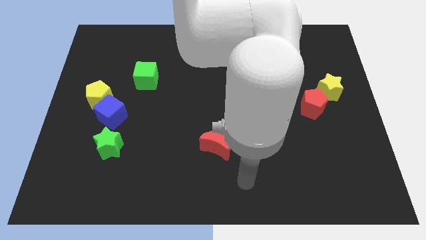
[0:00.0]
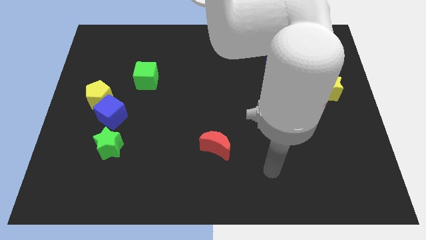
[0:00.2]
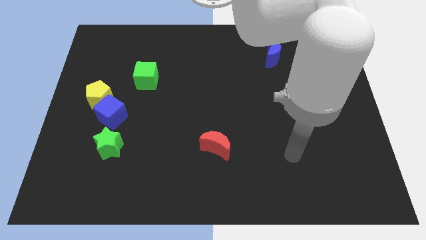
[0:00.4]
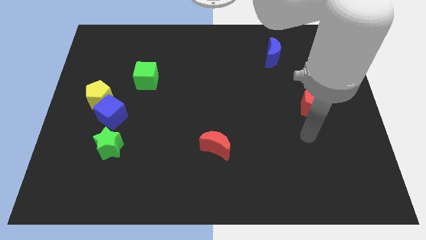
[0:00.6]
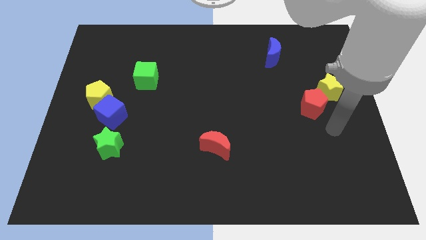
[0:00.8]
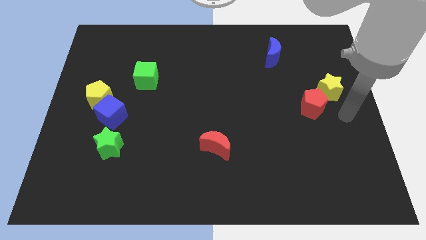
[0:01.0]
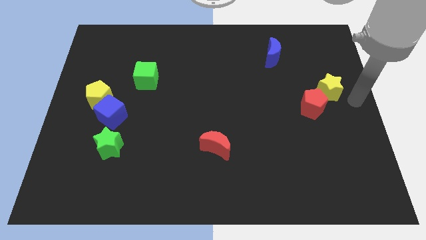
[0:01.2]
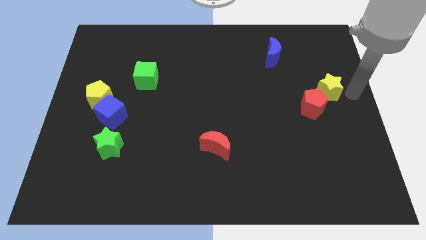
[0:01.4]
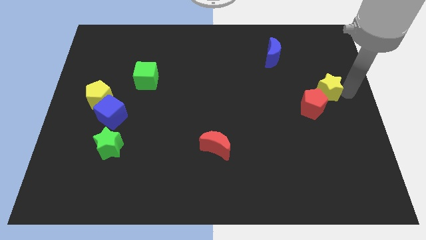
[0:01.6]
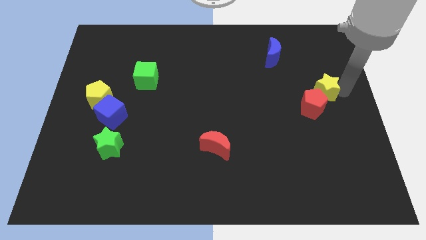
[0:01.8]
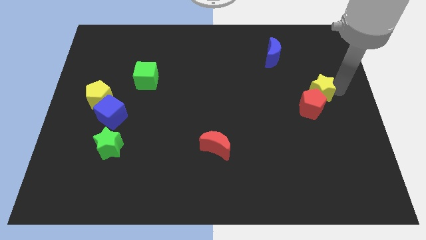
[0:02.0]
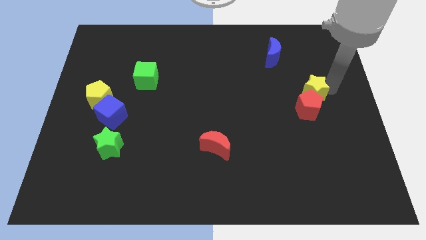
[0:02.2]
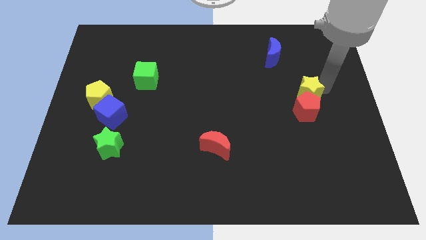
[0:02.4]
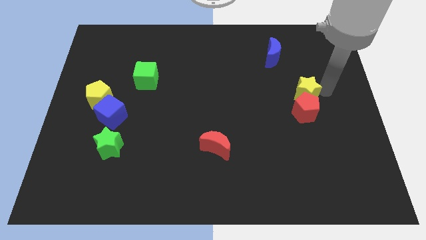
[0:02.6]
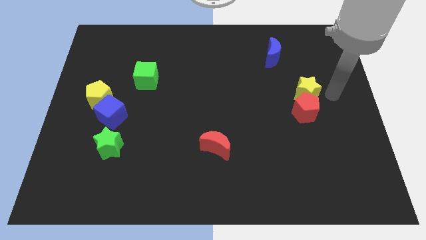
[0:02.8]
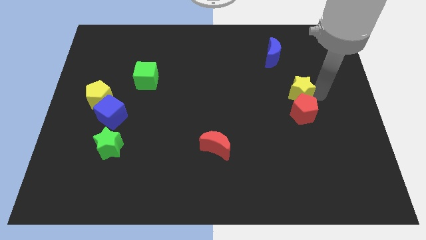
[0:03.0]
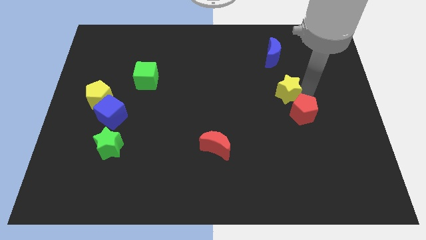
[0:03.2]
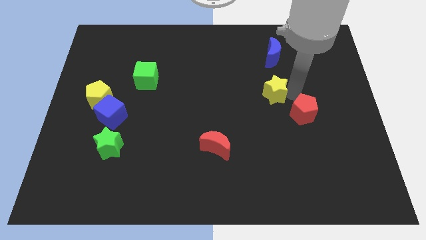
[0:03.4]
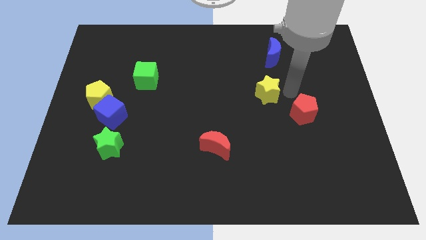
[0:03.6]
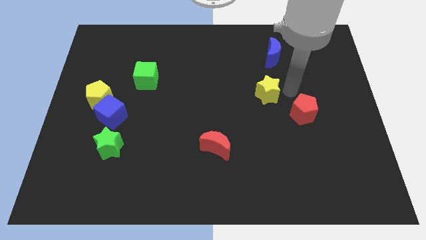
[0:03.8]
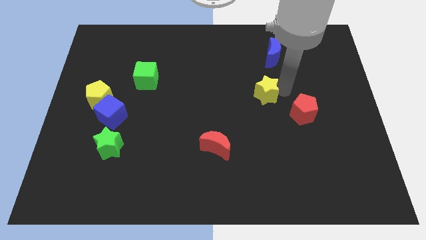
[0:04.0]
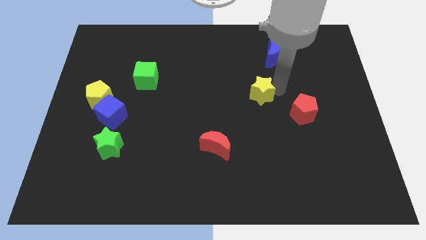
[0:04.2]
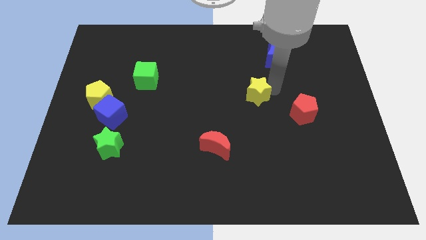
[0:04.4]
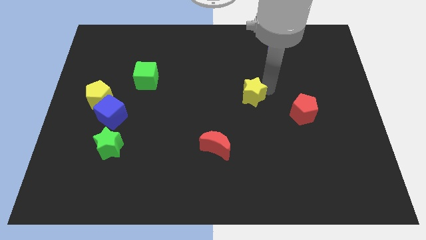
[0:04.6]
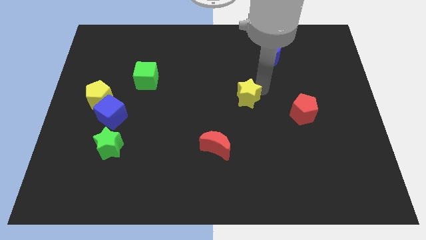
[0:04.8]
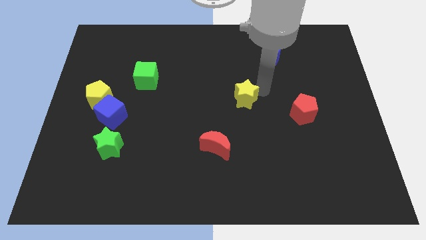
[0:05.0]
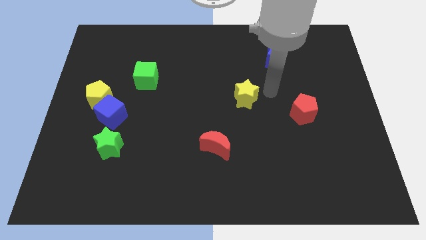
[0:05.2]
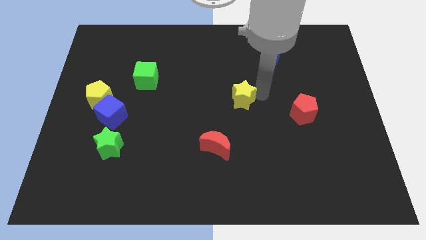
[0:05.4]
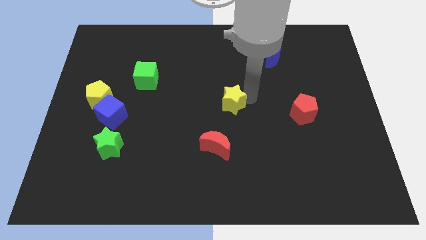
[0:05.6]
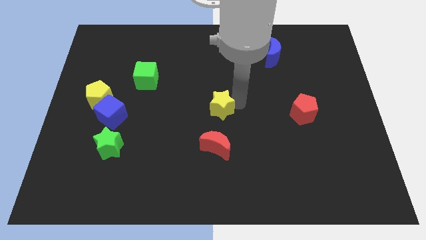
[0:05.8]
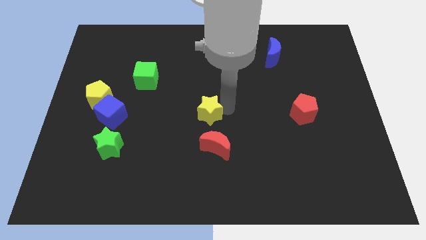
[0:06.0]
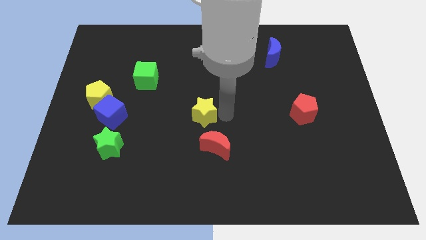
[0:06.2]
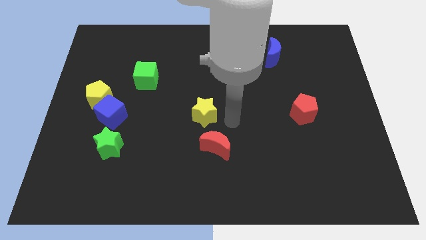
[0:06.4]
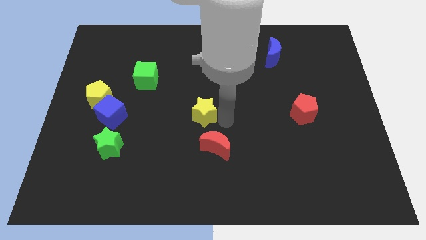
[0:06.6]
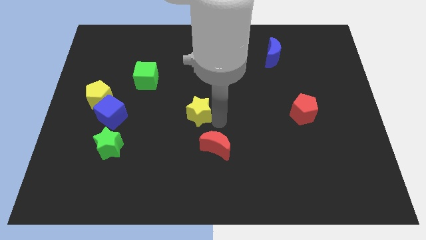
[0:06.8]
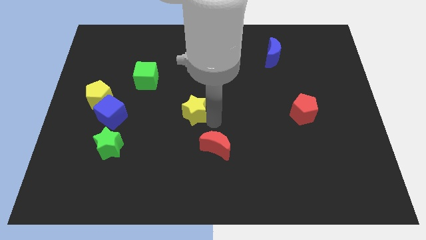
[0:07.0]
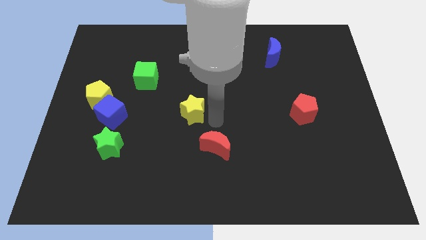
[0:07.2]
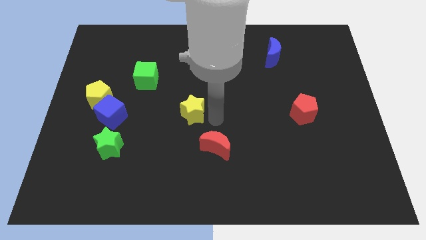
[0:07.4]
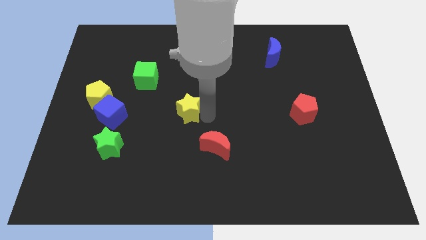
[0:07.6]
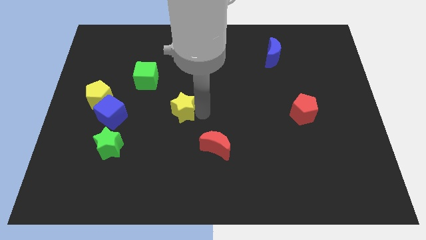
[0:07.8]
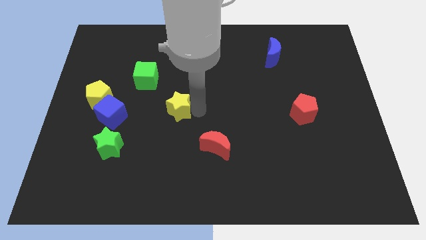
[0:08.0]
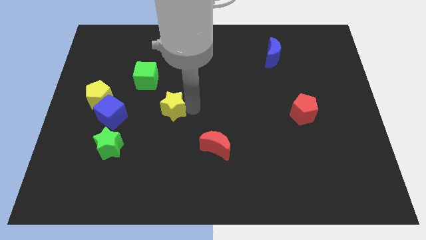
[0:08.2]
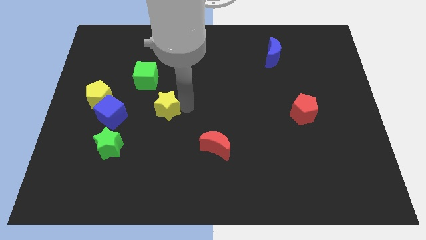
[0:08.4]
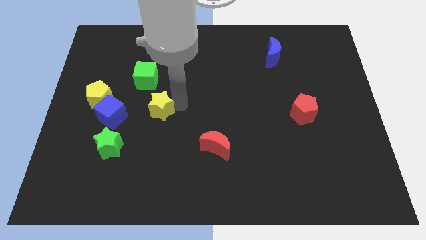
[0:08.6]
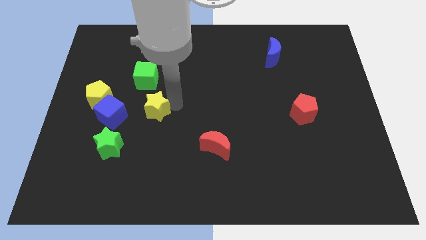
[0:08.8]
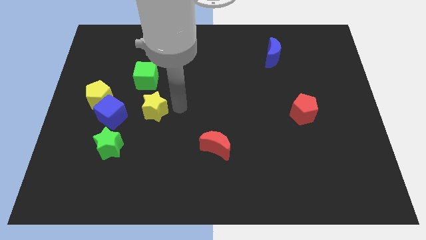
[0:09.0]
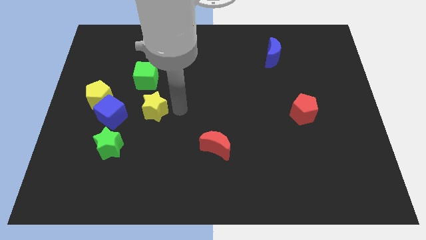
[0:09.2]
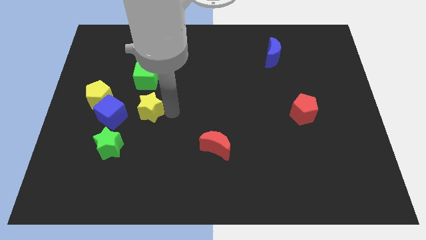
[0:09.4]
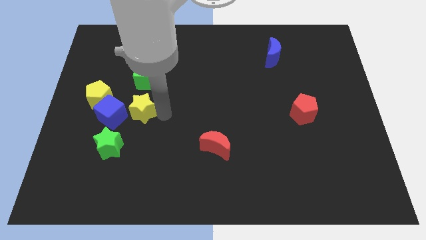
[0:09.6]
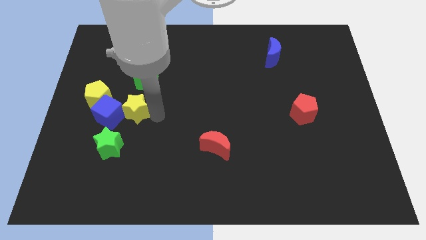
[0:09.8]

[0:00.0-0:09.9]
put the yellow star towards the blue cube

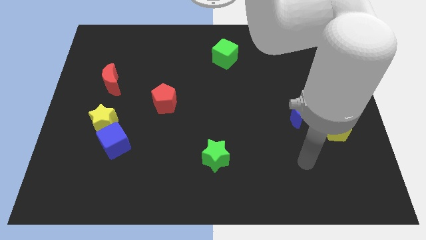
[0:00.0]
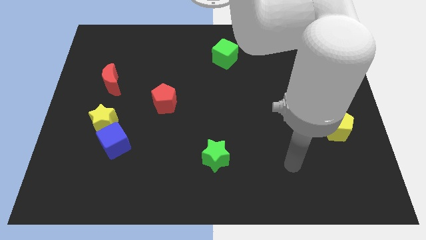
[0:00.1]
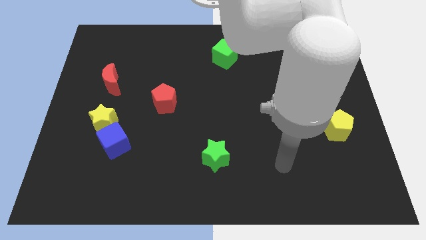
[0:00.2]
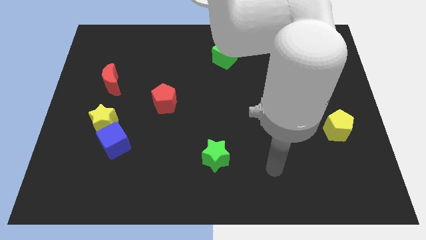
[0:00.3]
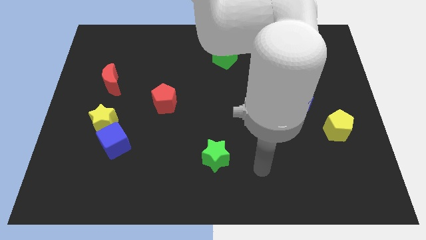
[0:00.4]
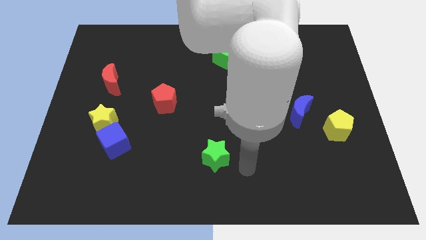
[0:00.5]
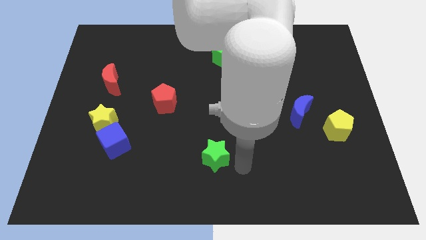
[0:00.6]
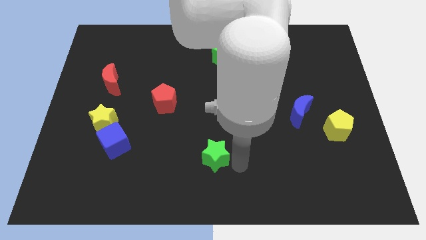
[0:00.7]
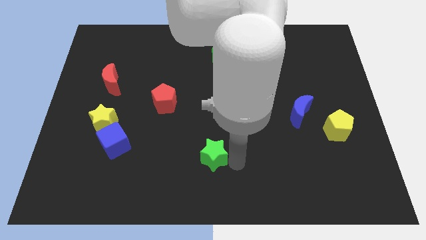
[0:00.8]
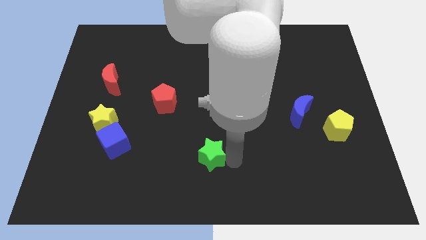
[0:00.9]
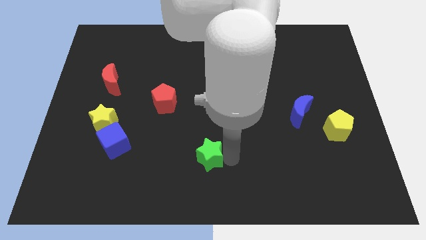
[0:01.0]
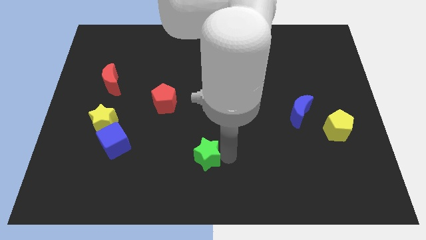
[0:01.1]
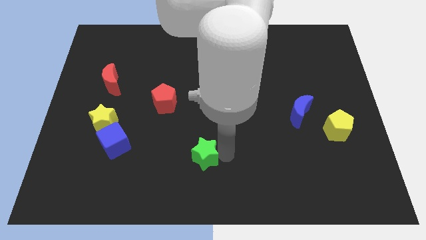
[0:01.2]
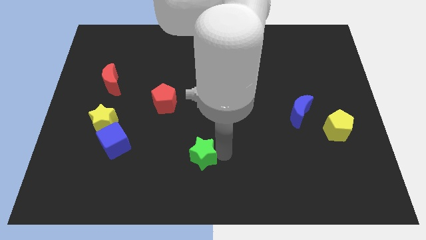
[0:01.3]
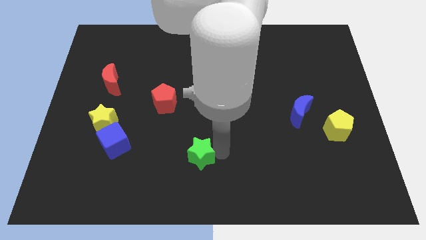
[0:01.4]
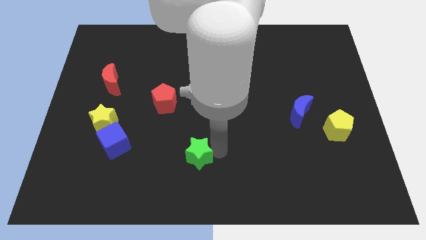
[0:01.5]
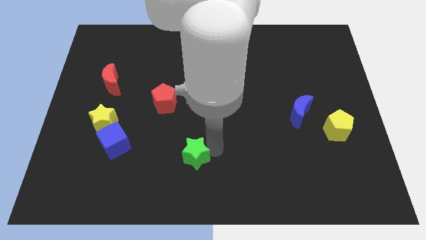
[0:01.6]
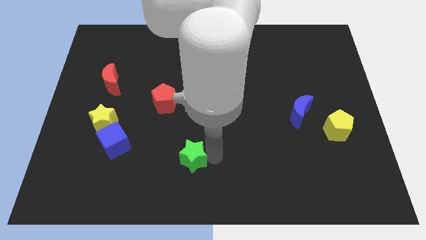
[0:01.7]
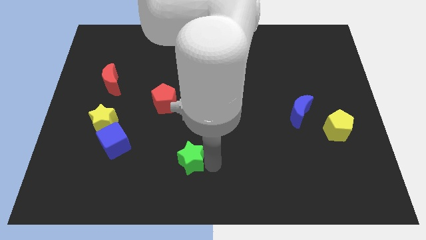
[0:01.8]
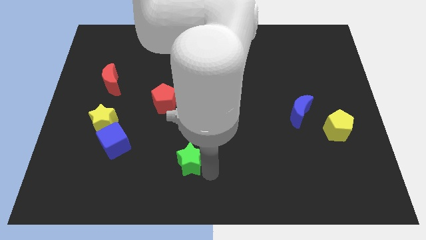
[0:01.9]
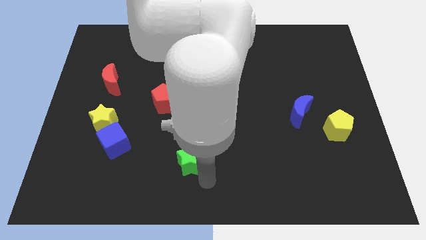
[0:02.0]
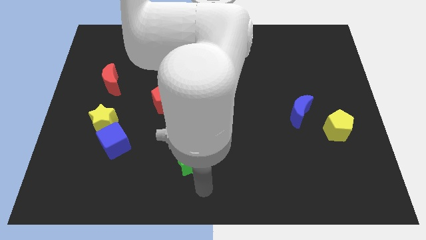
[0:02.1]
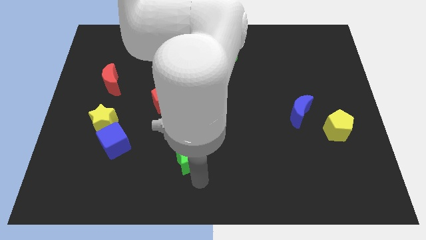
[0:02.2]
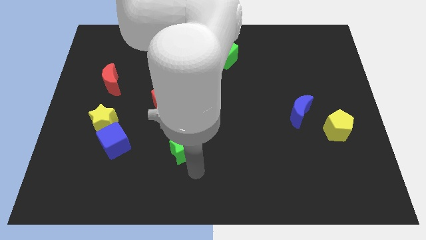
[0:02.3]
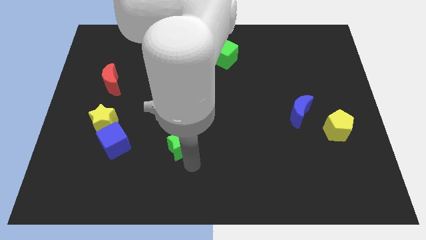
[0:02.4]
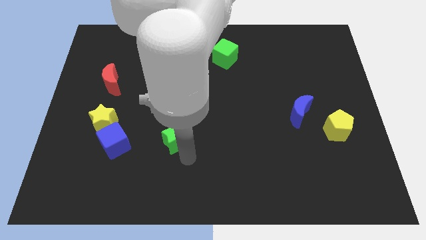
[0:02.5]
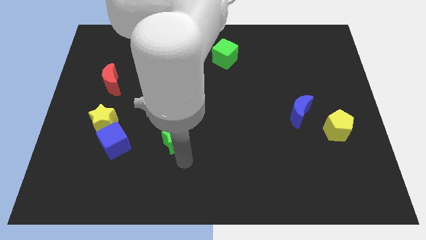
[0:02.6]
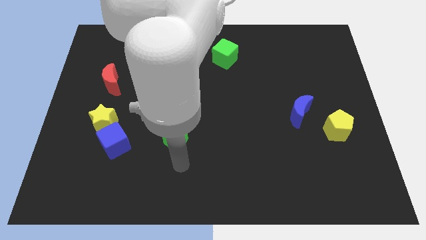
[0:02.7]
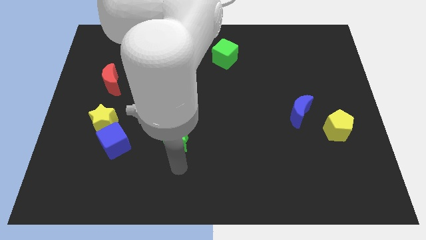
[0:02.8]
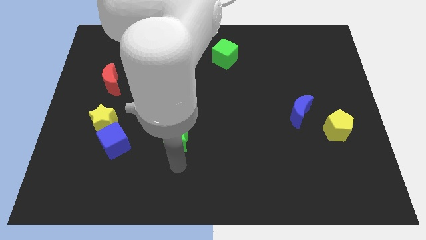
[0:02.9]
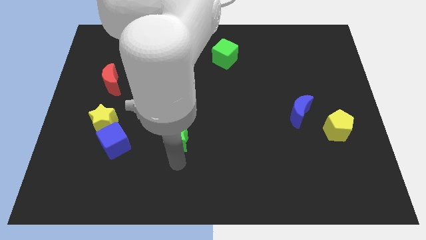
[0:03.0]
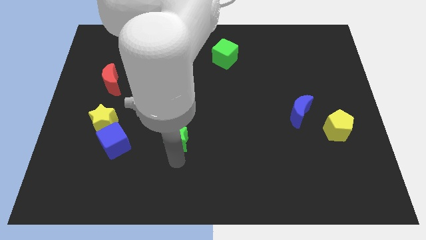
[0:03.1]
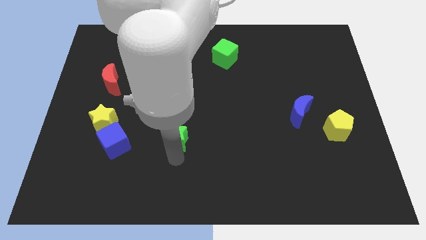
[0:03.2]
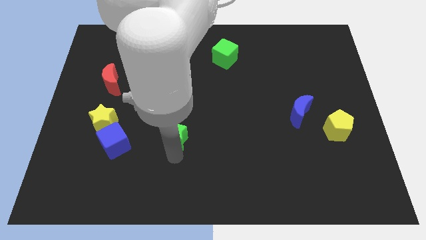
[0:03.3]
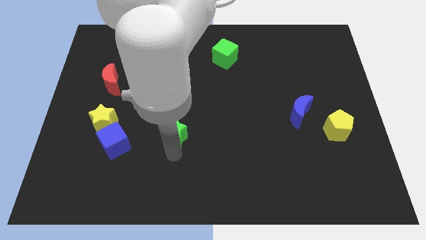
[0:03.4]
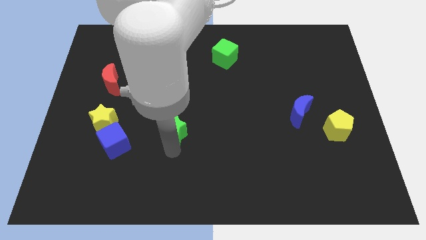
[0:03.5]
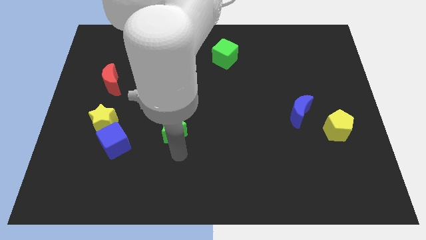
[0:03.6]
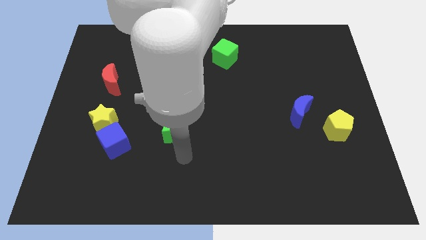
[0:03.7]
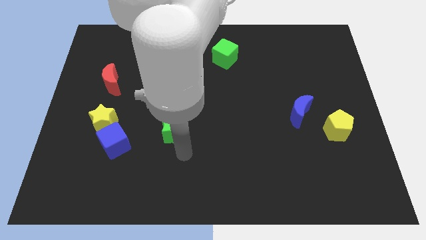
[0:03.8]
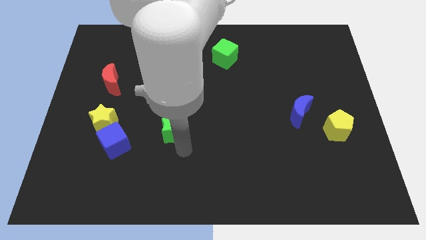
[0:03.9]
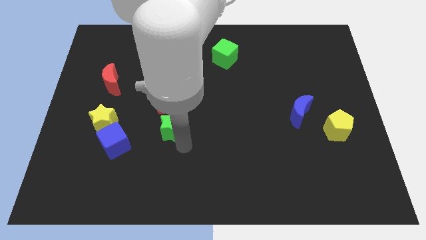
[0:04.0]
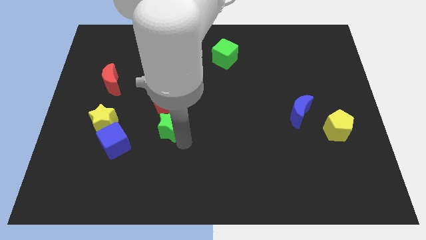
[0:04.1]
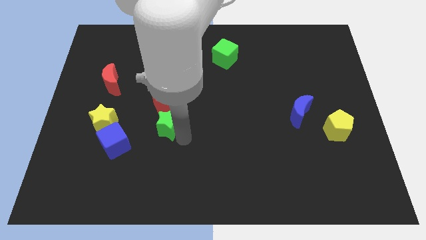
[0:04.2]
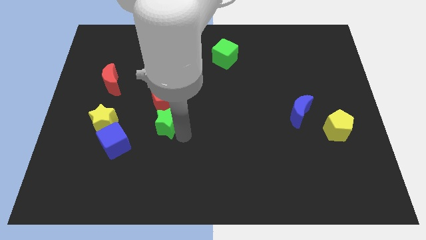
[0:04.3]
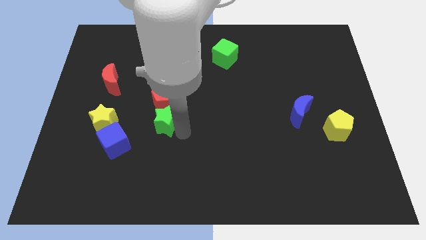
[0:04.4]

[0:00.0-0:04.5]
move the green star next to the red pentagon
